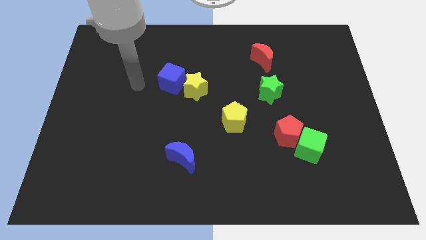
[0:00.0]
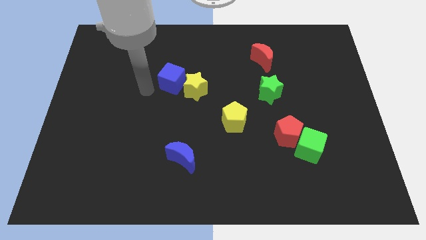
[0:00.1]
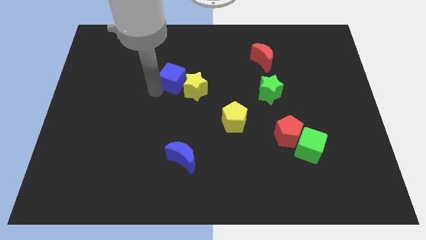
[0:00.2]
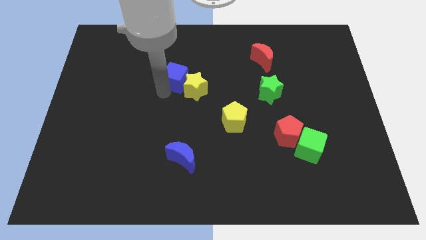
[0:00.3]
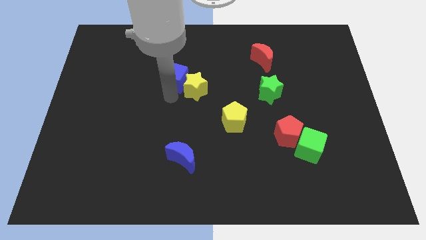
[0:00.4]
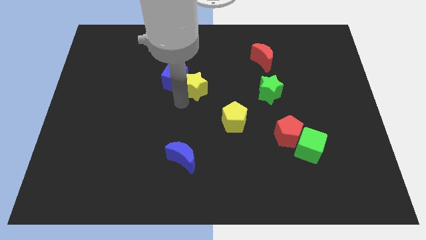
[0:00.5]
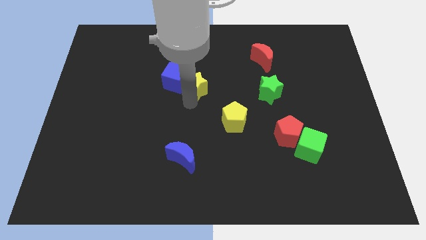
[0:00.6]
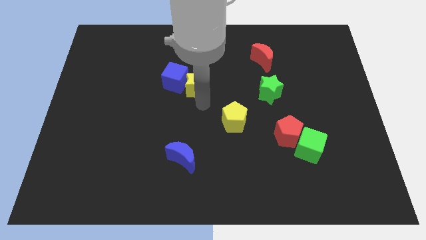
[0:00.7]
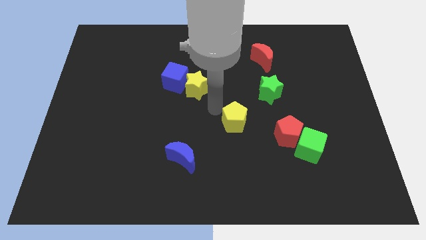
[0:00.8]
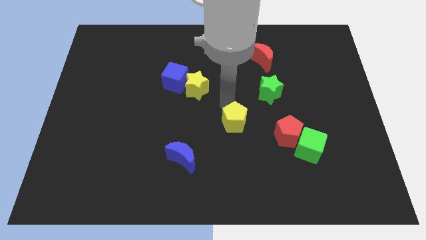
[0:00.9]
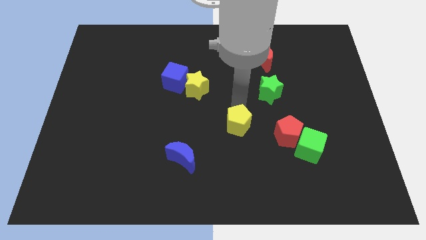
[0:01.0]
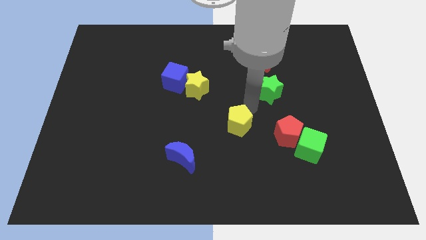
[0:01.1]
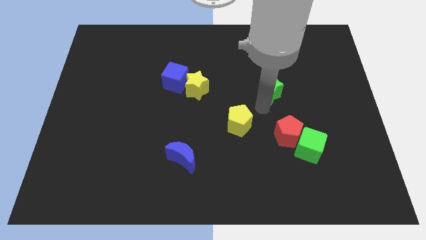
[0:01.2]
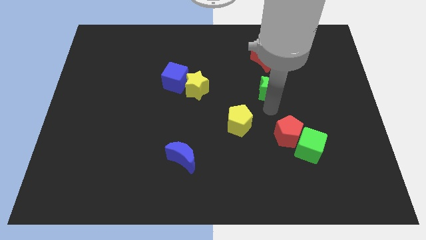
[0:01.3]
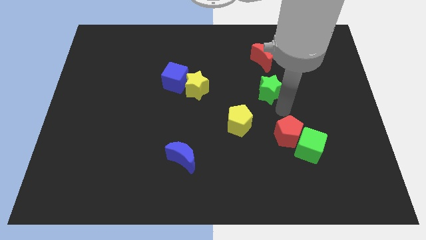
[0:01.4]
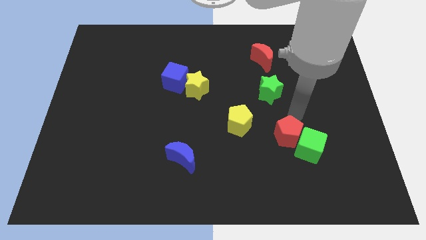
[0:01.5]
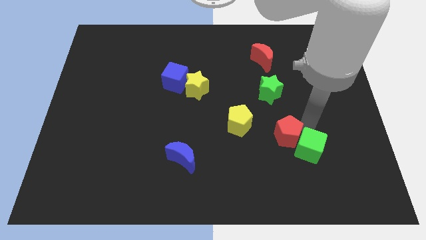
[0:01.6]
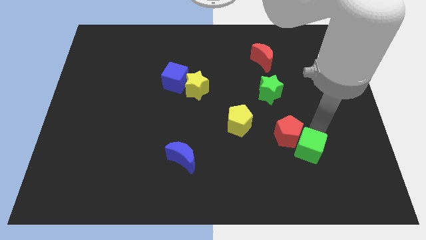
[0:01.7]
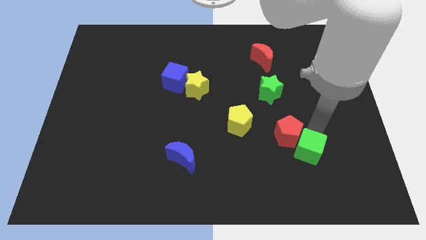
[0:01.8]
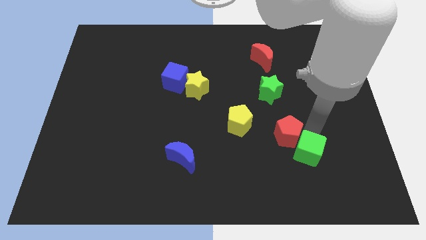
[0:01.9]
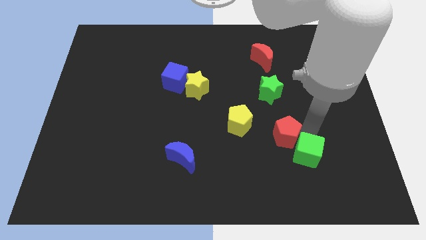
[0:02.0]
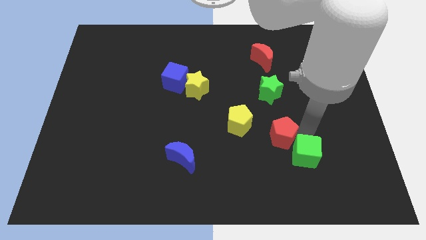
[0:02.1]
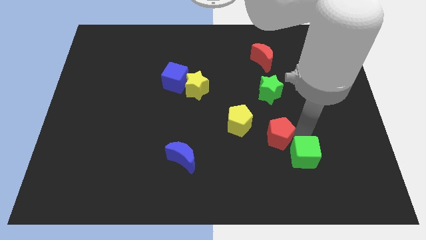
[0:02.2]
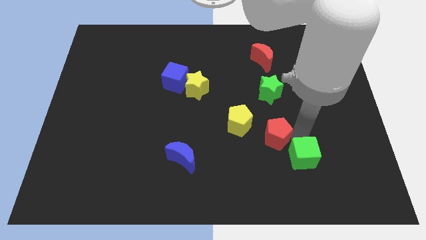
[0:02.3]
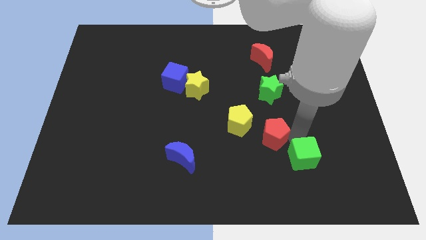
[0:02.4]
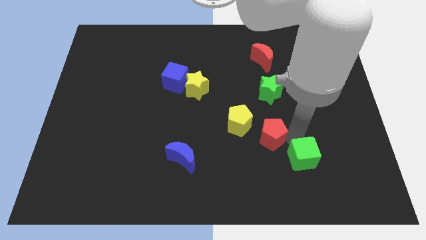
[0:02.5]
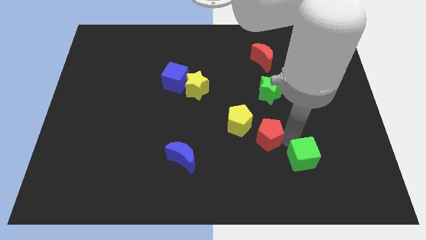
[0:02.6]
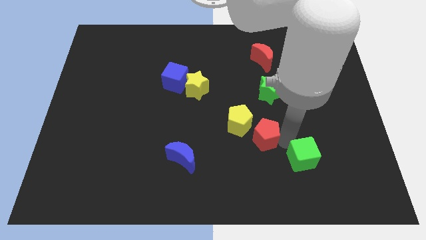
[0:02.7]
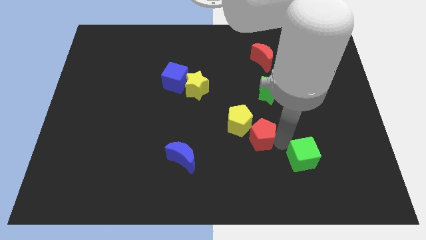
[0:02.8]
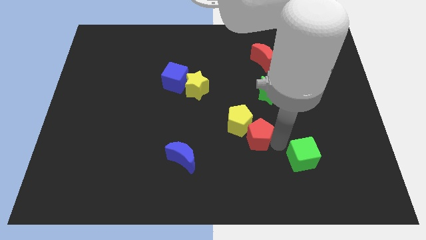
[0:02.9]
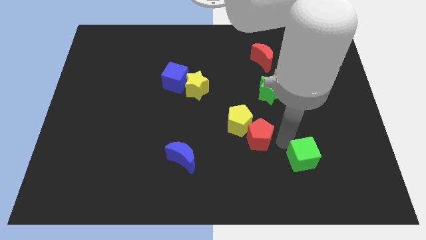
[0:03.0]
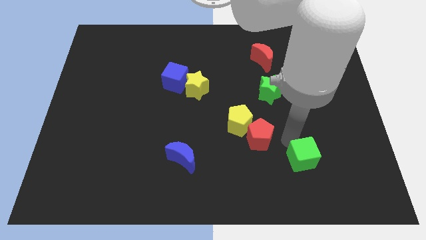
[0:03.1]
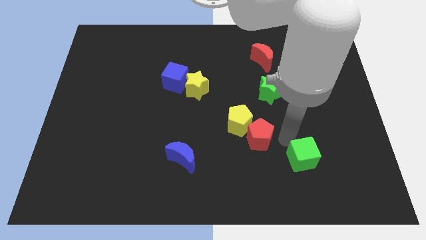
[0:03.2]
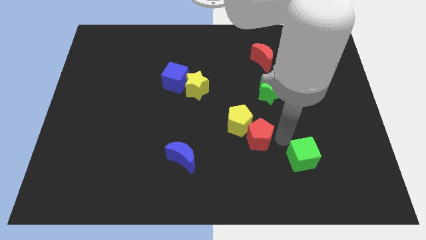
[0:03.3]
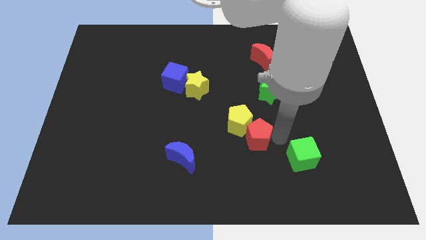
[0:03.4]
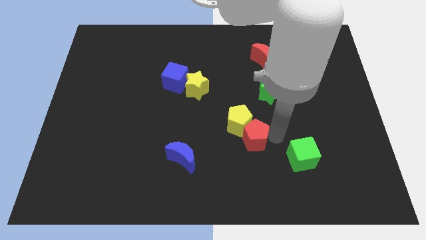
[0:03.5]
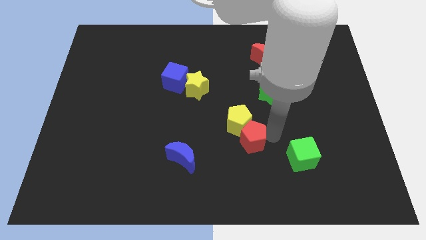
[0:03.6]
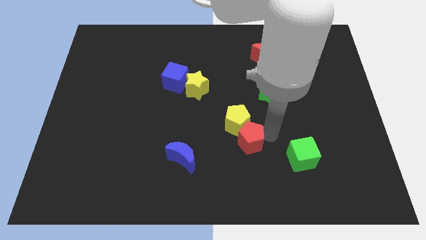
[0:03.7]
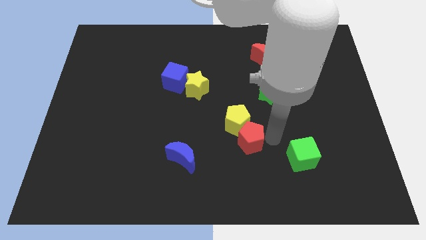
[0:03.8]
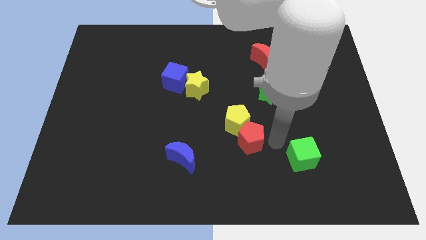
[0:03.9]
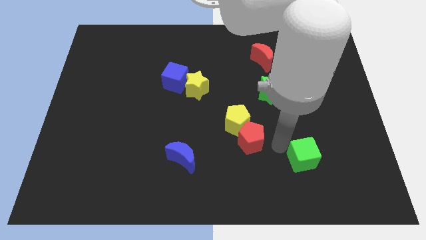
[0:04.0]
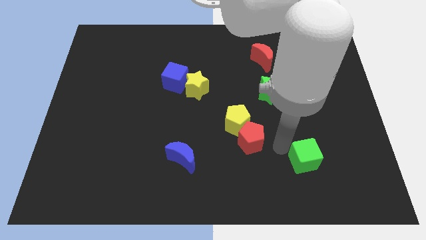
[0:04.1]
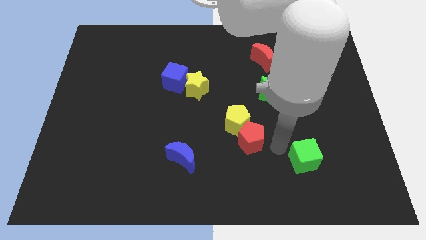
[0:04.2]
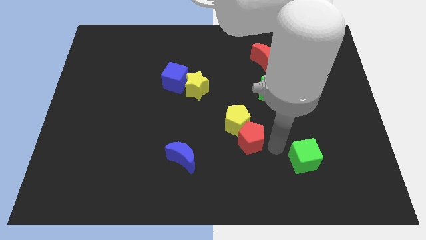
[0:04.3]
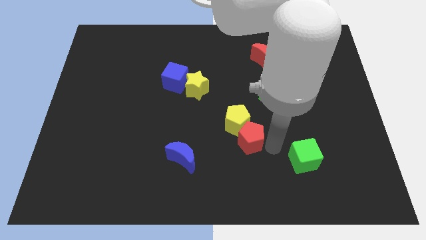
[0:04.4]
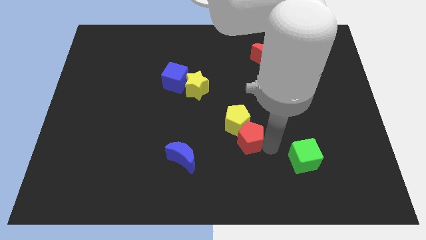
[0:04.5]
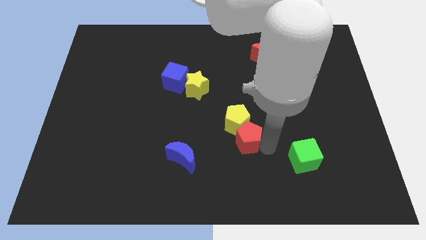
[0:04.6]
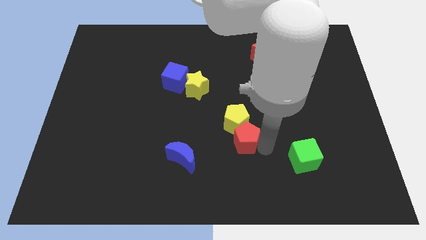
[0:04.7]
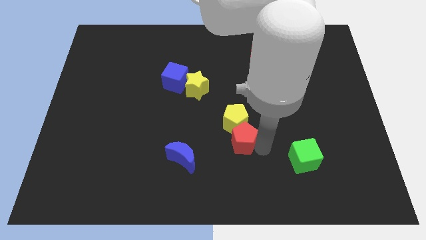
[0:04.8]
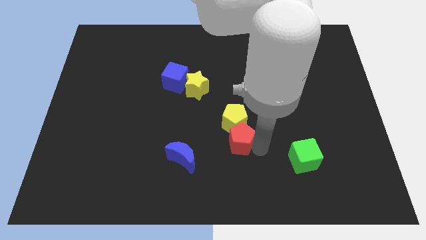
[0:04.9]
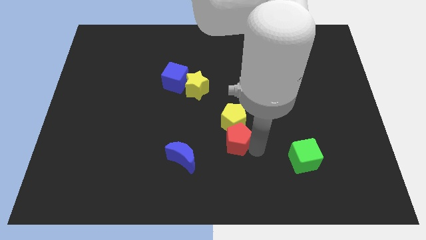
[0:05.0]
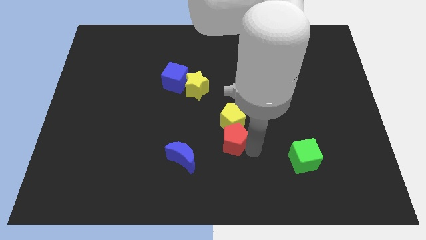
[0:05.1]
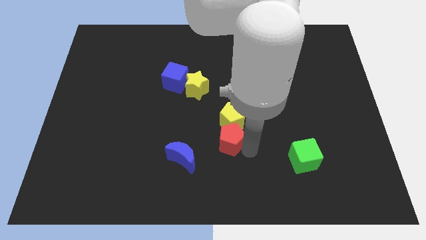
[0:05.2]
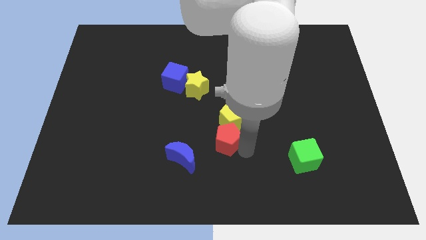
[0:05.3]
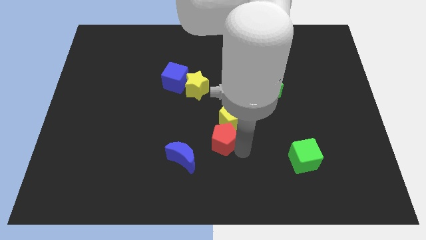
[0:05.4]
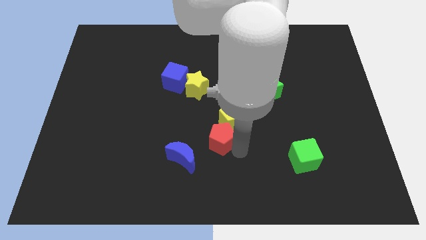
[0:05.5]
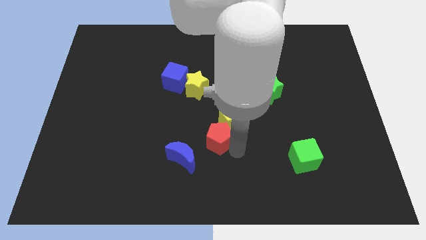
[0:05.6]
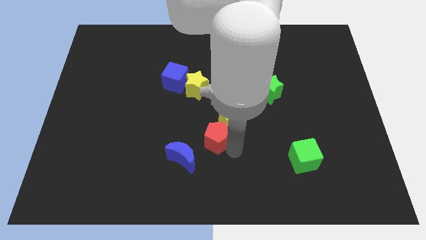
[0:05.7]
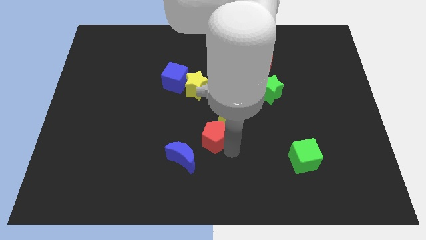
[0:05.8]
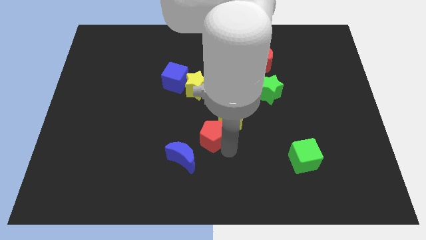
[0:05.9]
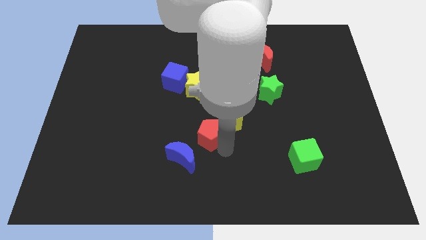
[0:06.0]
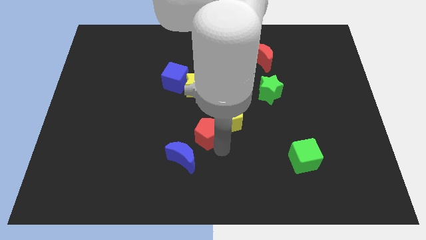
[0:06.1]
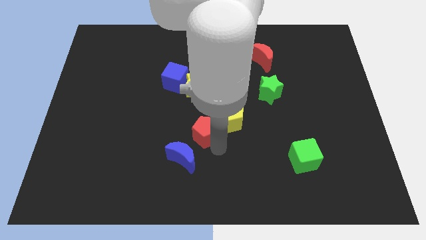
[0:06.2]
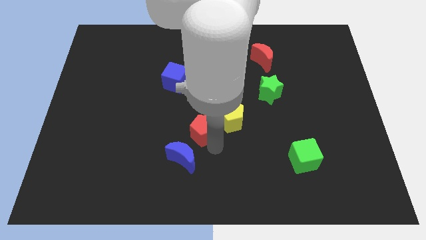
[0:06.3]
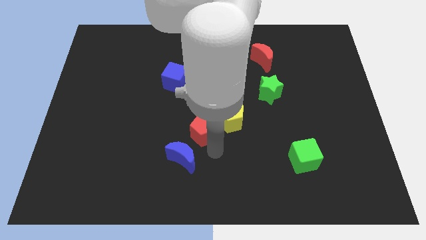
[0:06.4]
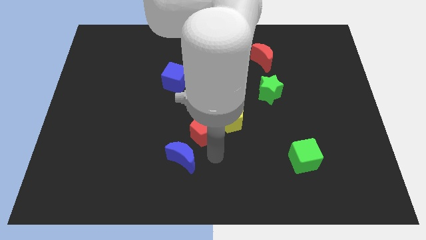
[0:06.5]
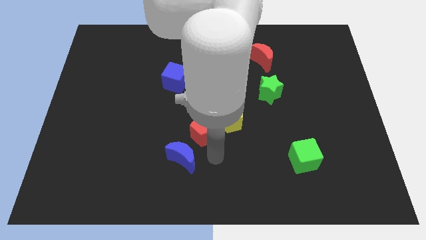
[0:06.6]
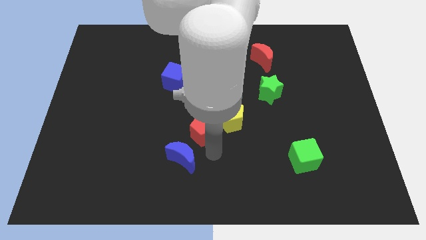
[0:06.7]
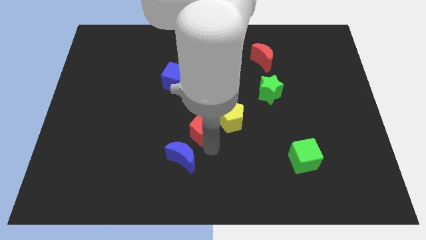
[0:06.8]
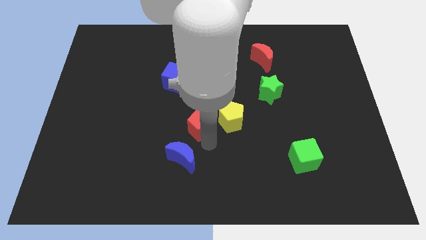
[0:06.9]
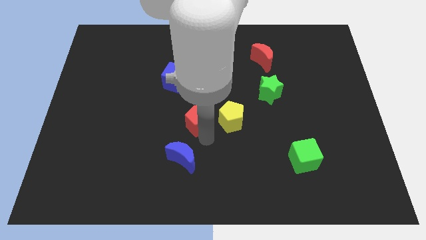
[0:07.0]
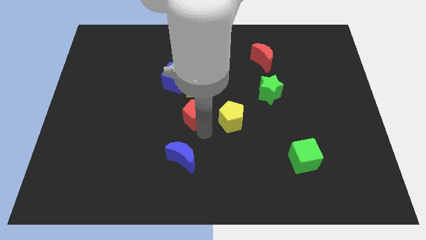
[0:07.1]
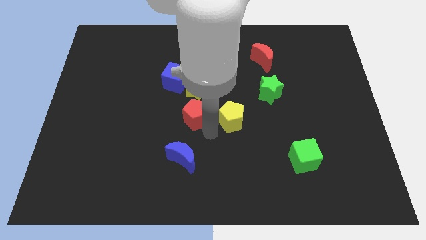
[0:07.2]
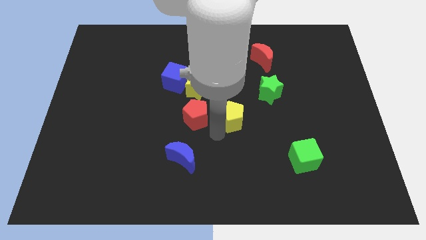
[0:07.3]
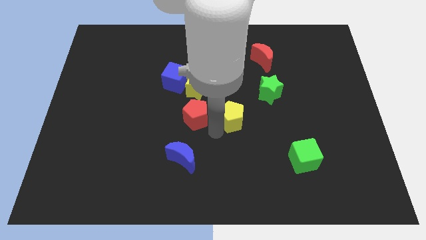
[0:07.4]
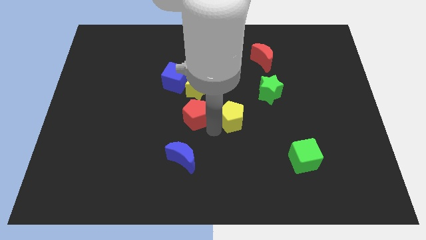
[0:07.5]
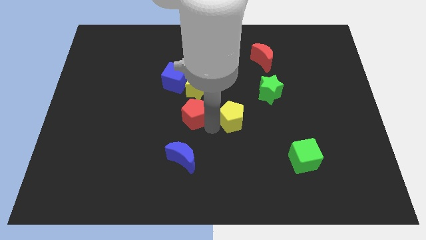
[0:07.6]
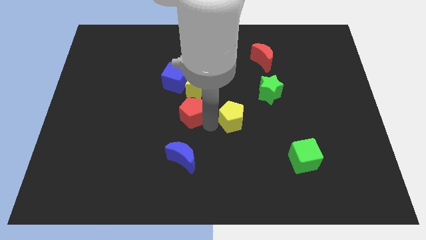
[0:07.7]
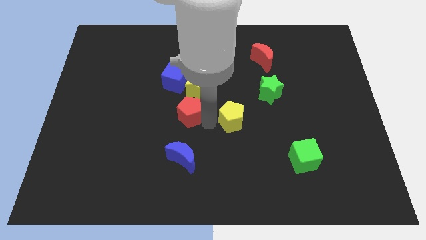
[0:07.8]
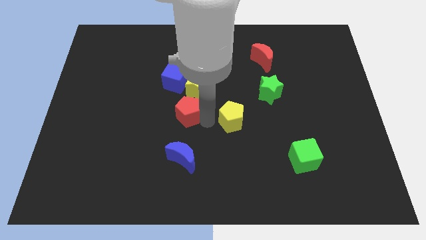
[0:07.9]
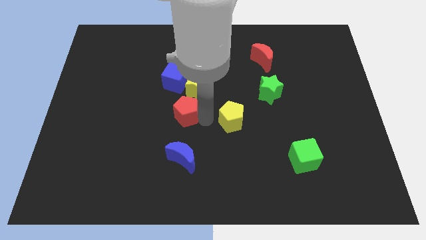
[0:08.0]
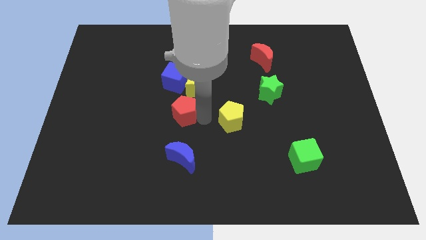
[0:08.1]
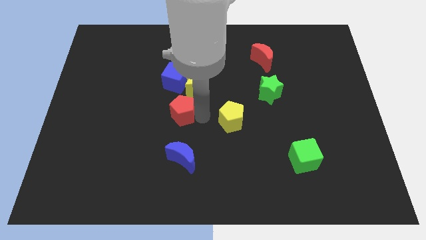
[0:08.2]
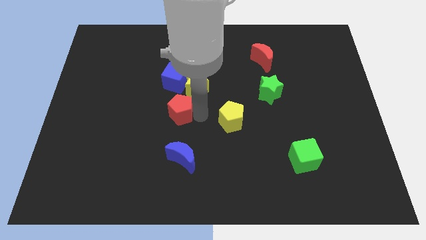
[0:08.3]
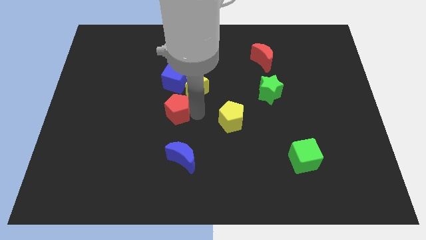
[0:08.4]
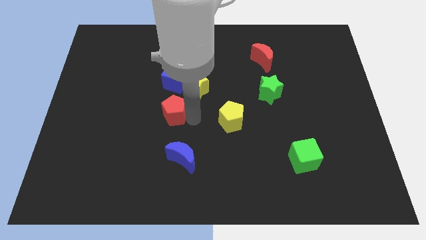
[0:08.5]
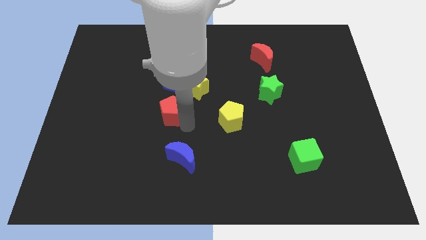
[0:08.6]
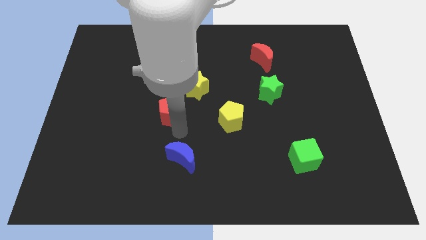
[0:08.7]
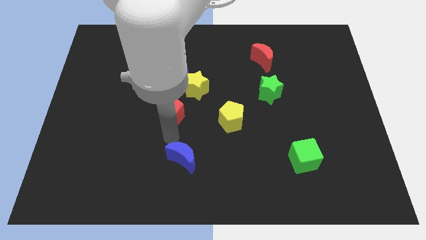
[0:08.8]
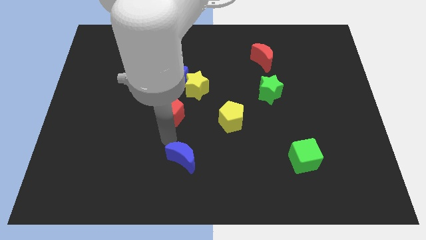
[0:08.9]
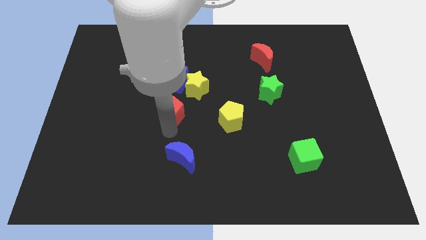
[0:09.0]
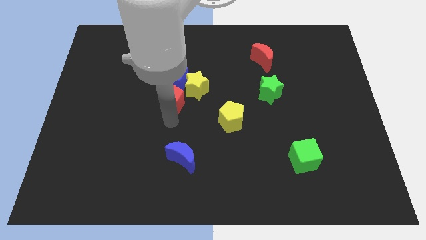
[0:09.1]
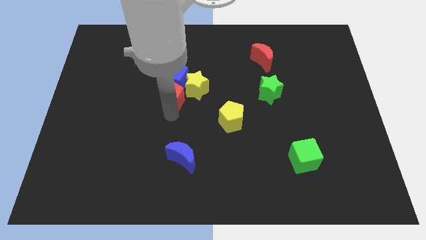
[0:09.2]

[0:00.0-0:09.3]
push the red pentagon next to the blue cube
